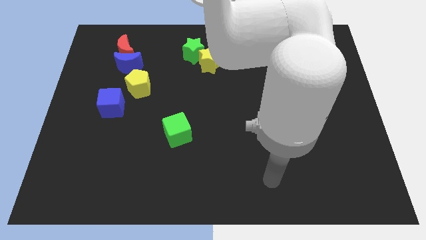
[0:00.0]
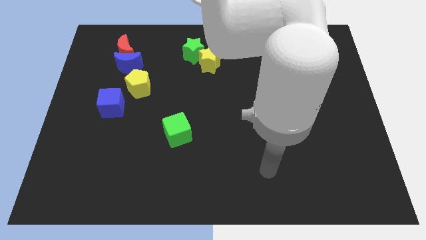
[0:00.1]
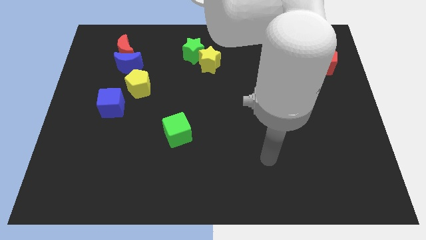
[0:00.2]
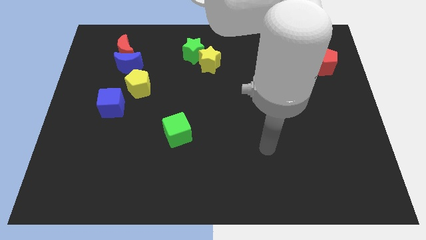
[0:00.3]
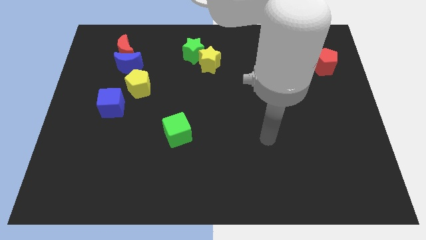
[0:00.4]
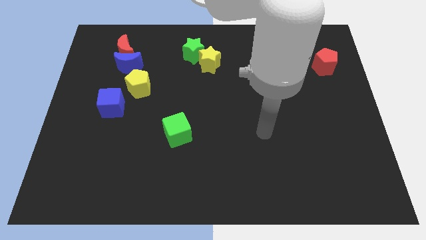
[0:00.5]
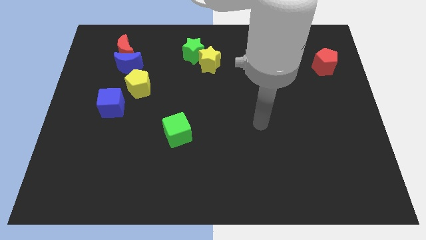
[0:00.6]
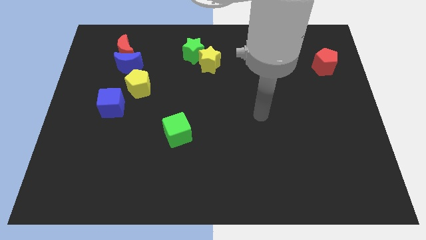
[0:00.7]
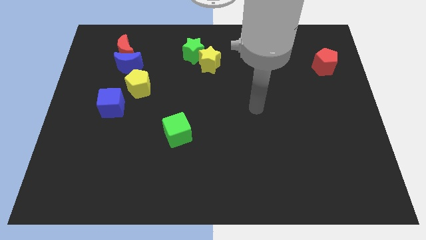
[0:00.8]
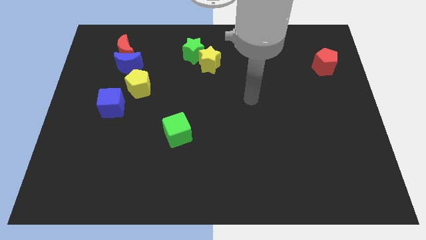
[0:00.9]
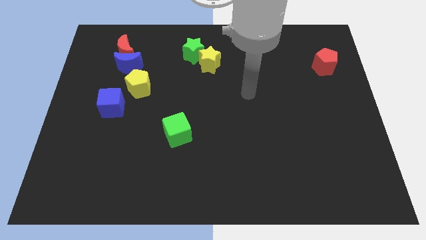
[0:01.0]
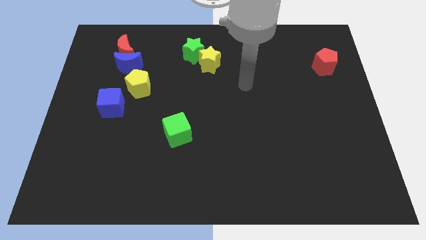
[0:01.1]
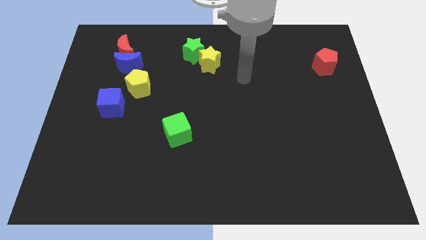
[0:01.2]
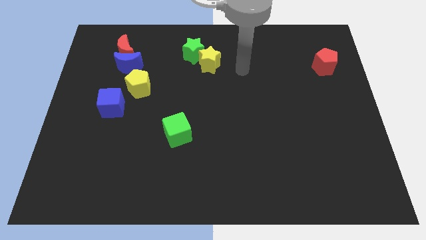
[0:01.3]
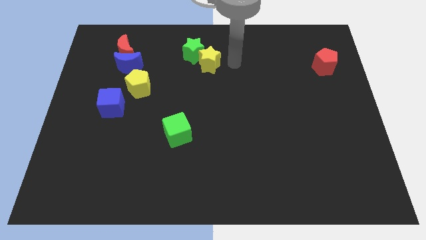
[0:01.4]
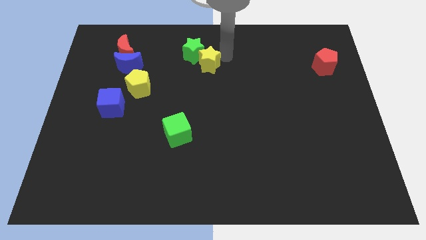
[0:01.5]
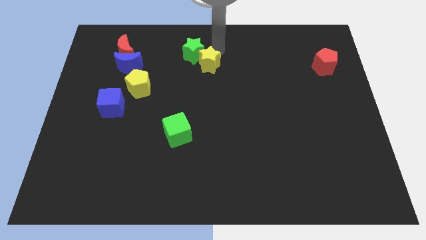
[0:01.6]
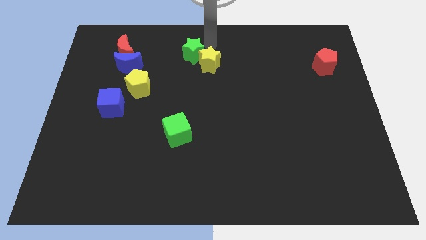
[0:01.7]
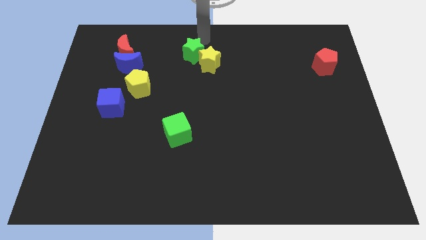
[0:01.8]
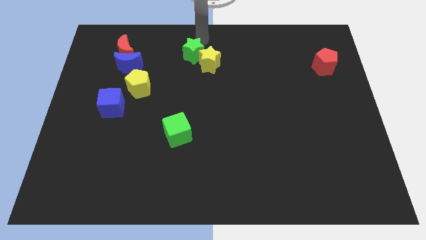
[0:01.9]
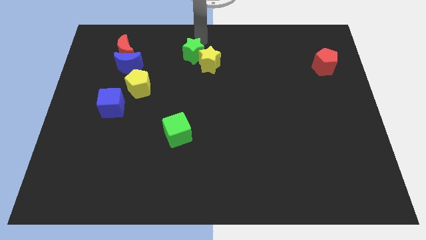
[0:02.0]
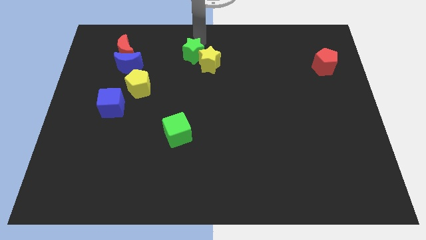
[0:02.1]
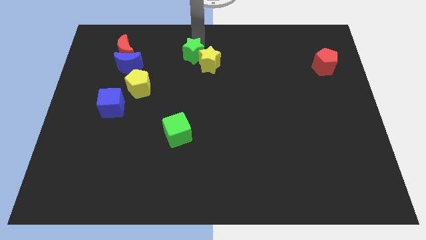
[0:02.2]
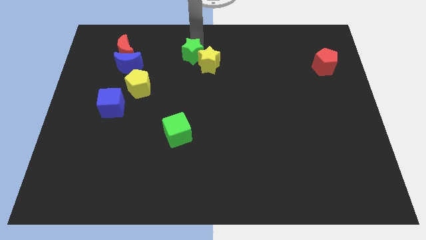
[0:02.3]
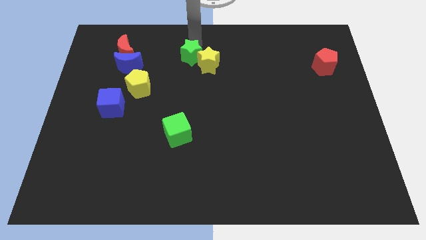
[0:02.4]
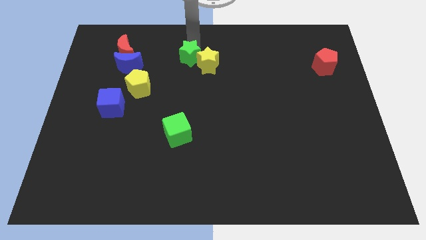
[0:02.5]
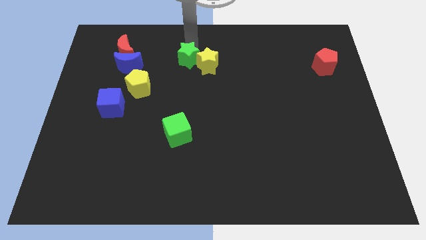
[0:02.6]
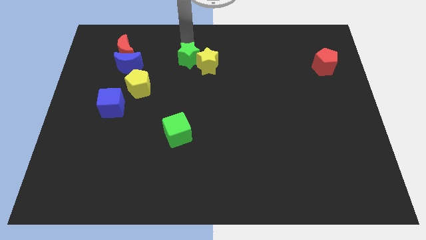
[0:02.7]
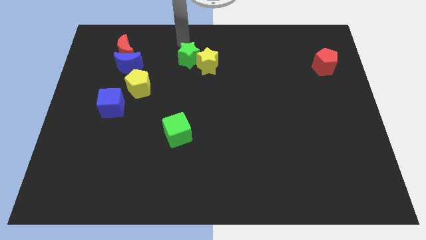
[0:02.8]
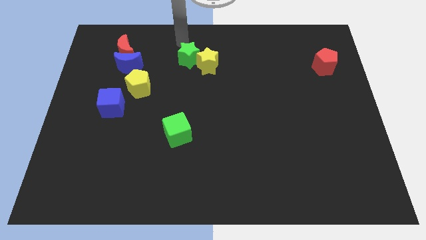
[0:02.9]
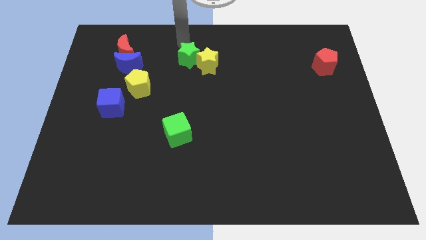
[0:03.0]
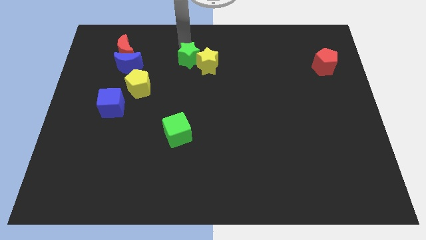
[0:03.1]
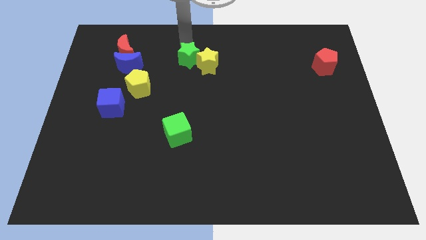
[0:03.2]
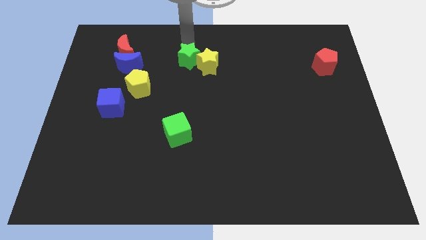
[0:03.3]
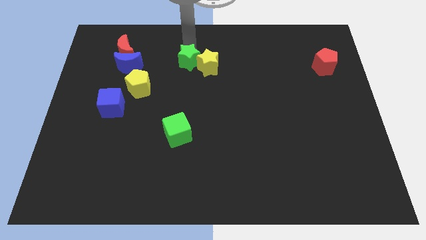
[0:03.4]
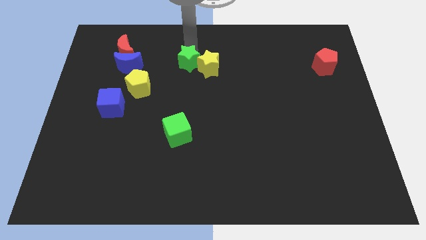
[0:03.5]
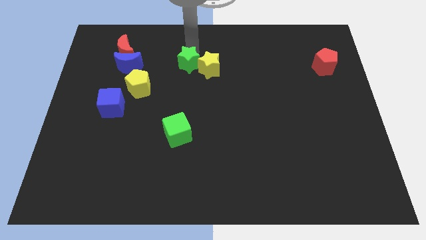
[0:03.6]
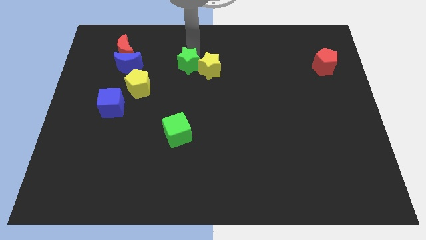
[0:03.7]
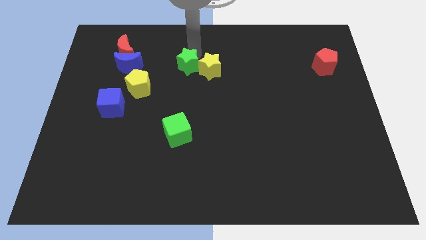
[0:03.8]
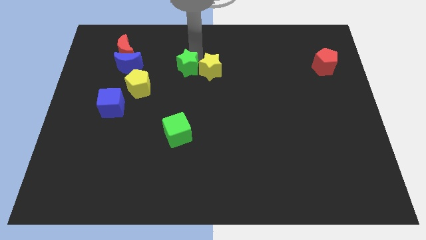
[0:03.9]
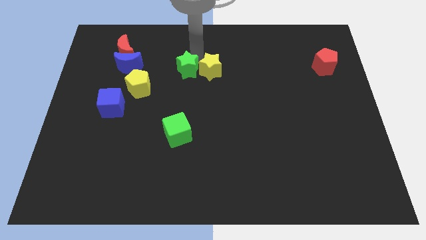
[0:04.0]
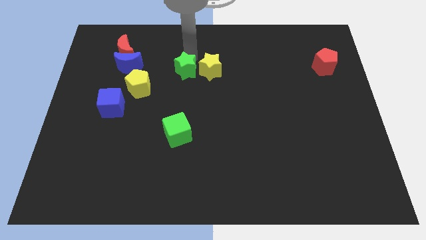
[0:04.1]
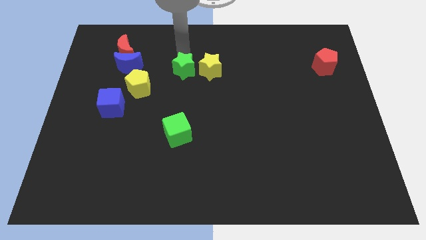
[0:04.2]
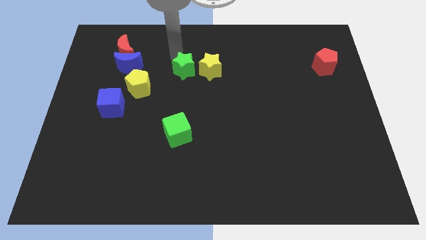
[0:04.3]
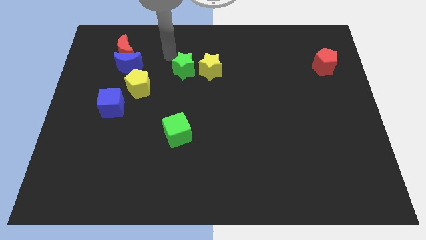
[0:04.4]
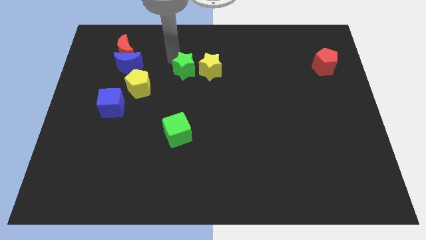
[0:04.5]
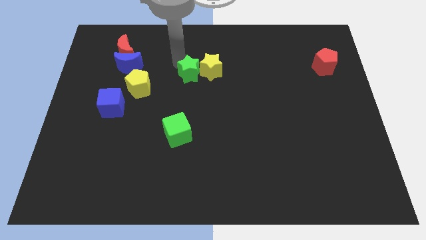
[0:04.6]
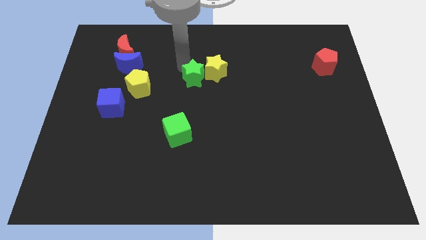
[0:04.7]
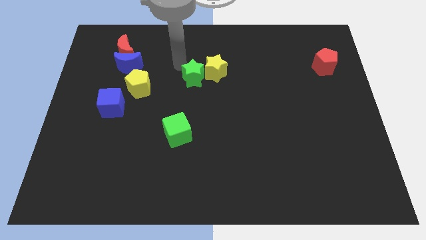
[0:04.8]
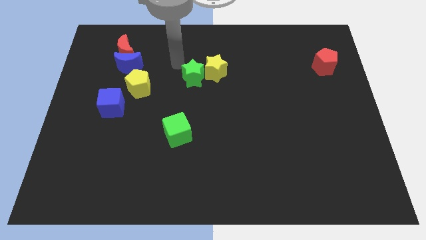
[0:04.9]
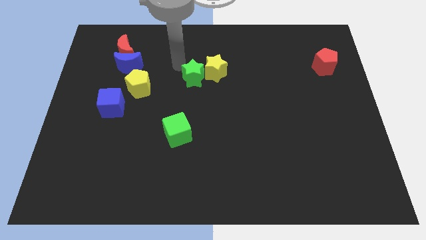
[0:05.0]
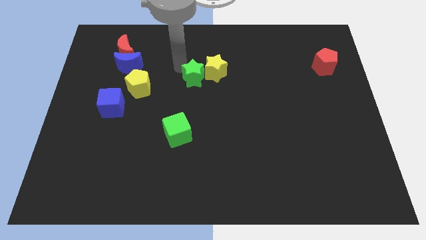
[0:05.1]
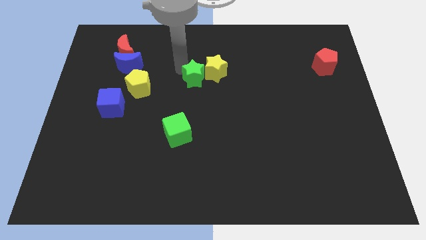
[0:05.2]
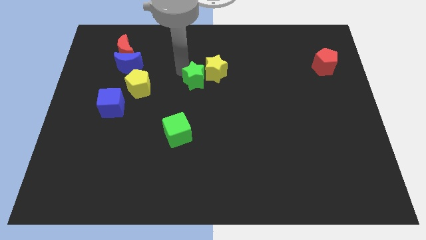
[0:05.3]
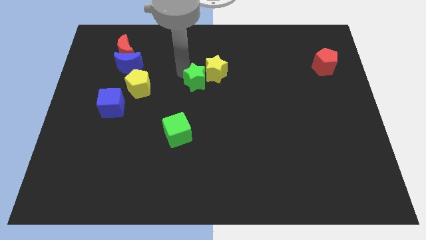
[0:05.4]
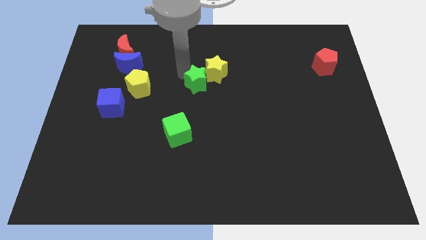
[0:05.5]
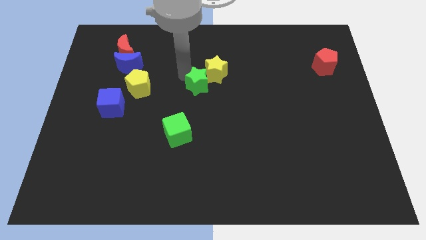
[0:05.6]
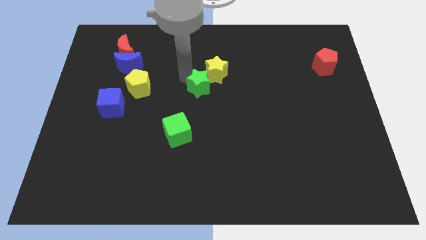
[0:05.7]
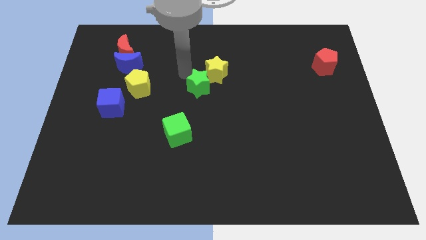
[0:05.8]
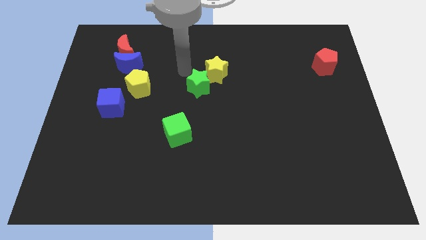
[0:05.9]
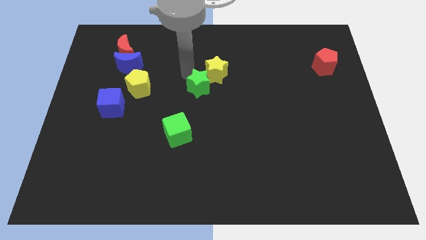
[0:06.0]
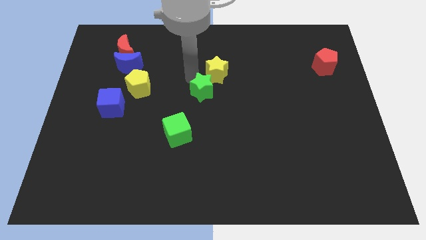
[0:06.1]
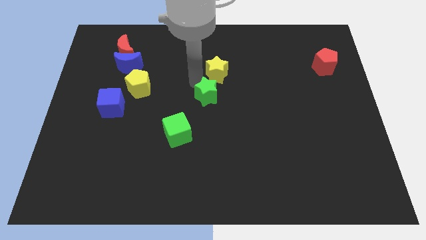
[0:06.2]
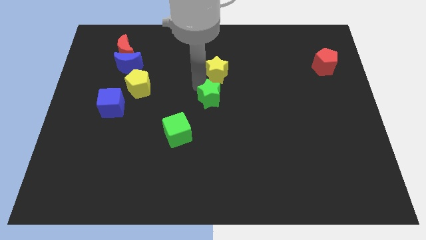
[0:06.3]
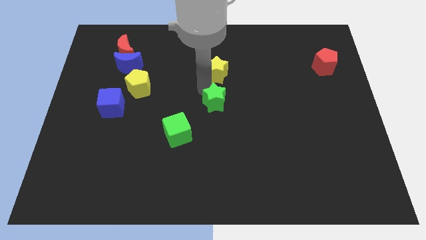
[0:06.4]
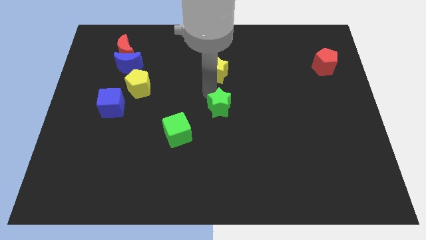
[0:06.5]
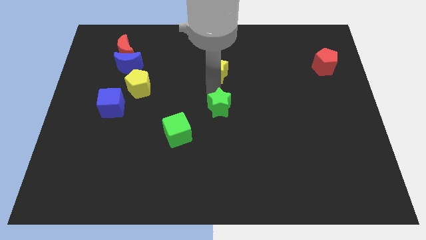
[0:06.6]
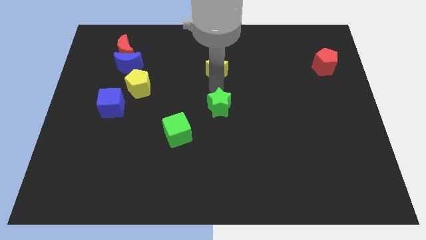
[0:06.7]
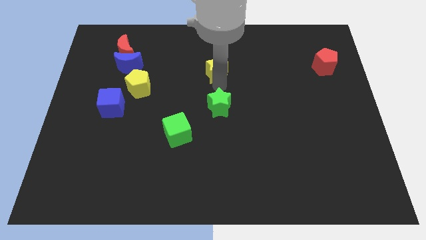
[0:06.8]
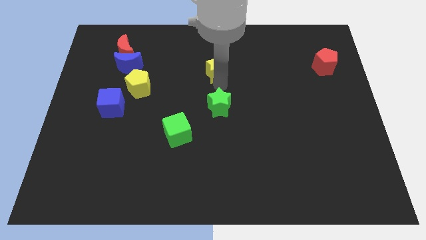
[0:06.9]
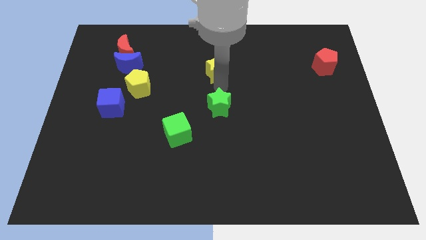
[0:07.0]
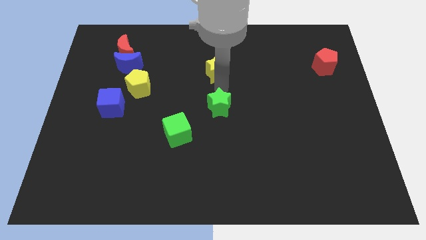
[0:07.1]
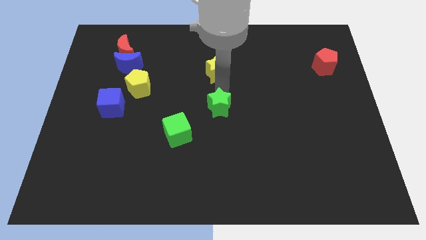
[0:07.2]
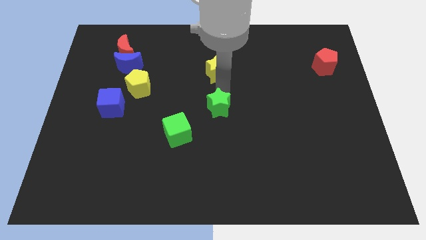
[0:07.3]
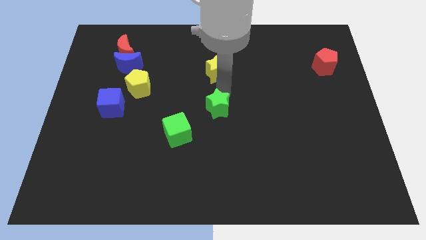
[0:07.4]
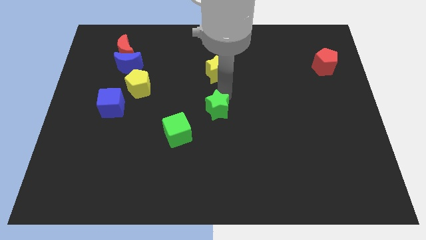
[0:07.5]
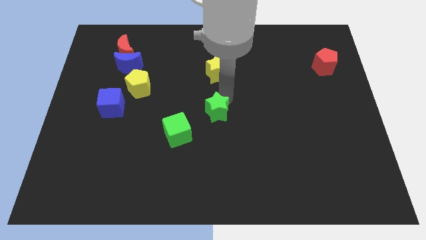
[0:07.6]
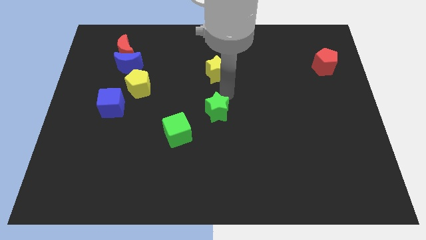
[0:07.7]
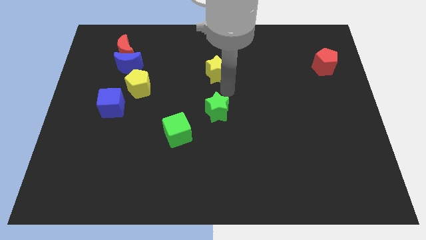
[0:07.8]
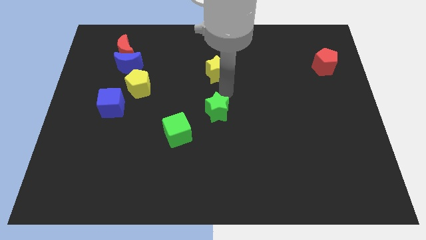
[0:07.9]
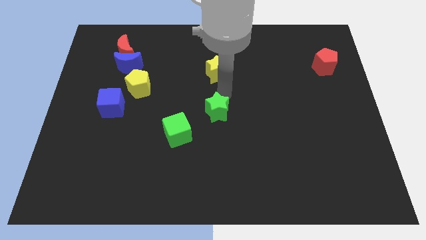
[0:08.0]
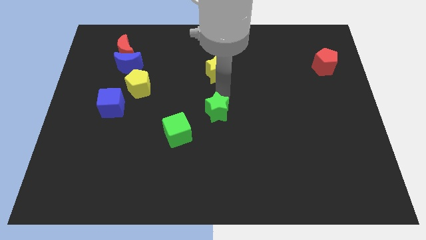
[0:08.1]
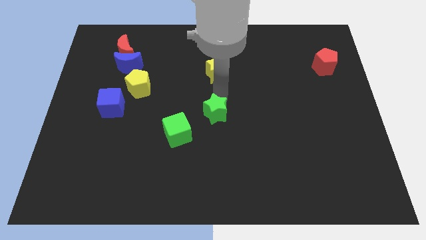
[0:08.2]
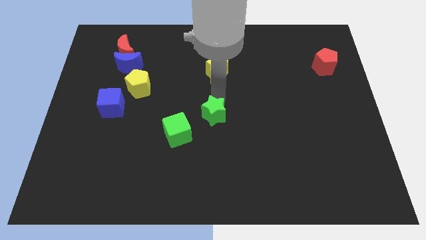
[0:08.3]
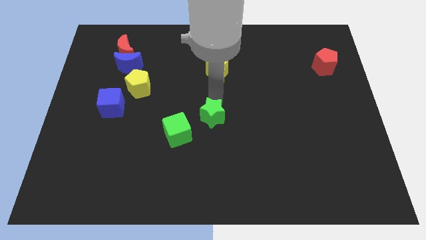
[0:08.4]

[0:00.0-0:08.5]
move the green star downwards
